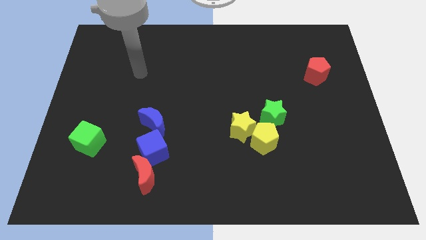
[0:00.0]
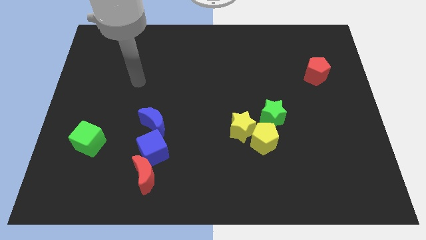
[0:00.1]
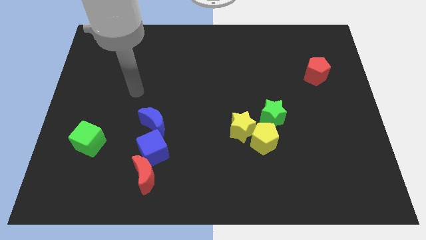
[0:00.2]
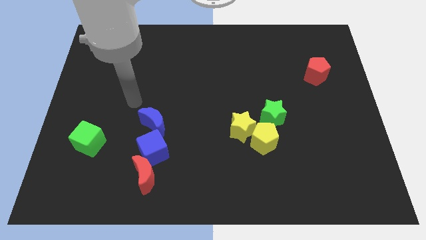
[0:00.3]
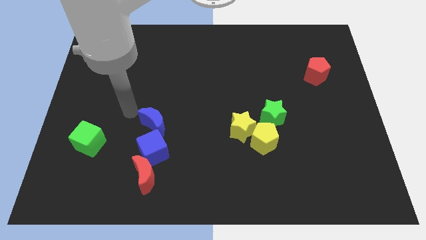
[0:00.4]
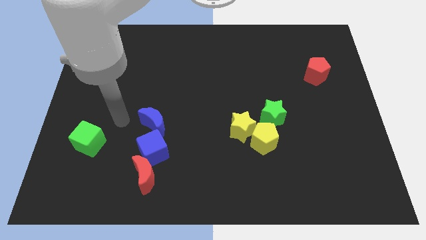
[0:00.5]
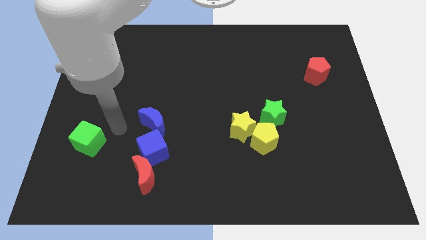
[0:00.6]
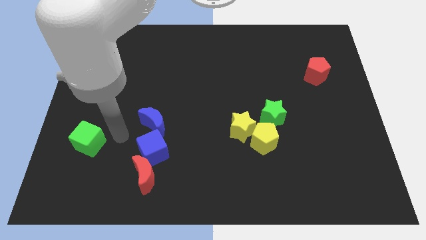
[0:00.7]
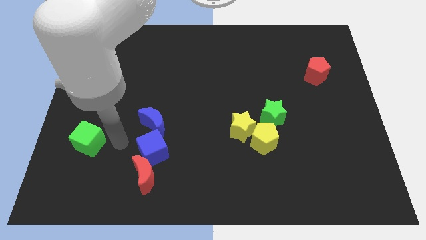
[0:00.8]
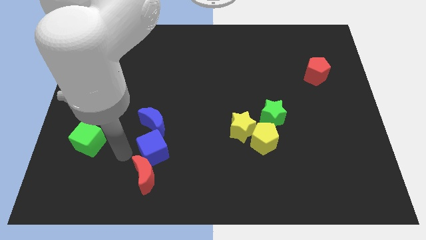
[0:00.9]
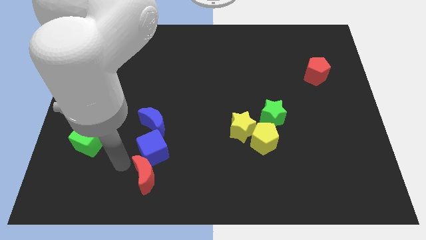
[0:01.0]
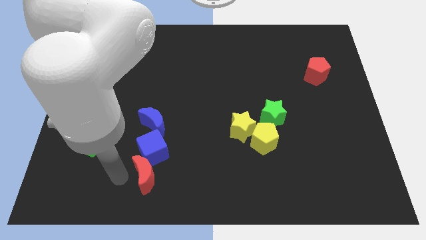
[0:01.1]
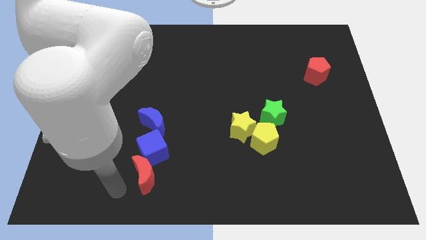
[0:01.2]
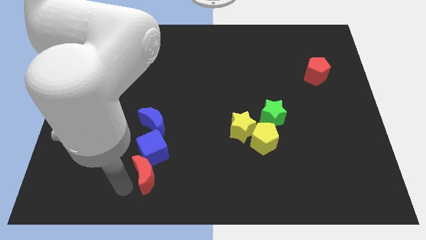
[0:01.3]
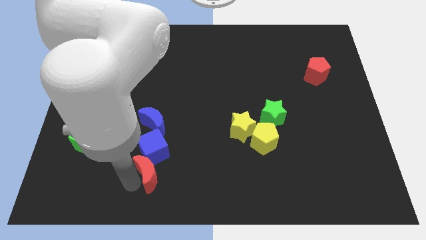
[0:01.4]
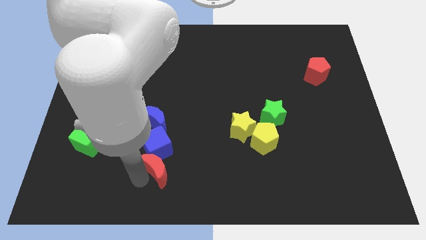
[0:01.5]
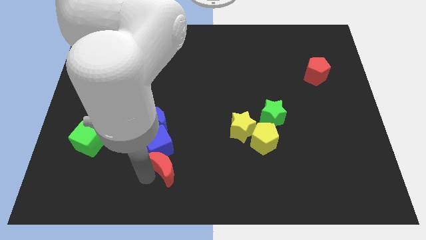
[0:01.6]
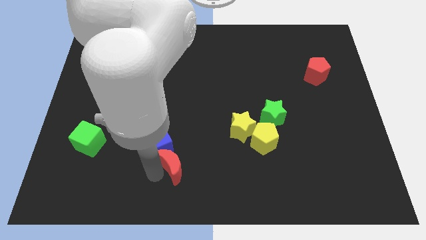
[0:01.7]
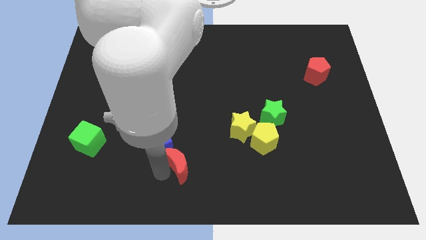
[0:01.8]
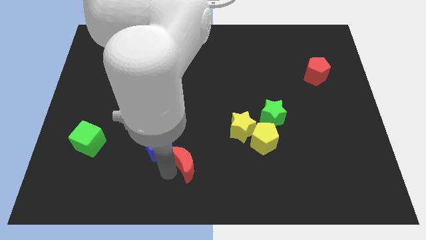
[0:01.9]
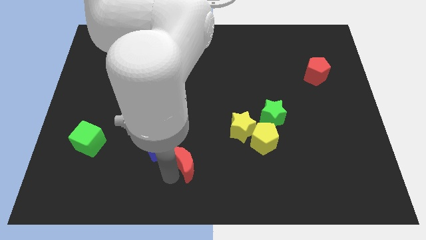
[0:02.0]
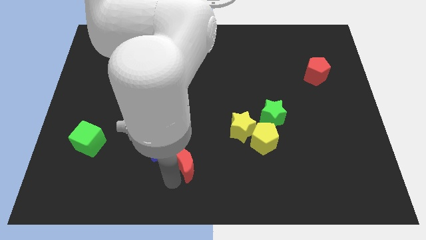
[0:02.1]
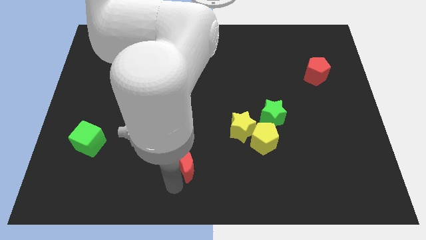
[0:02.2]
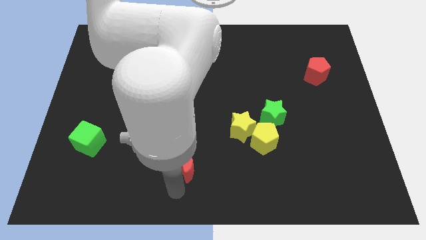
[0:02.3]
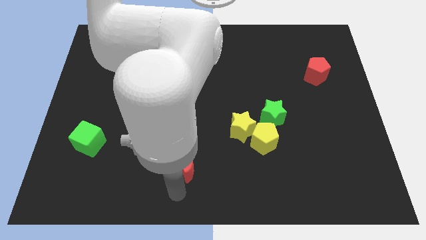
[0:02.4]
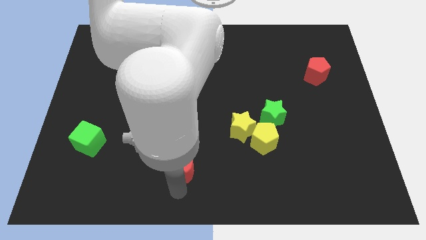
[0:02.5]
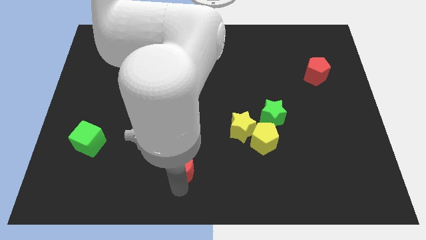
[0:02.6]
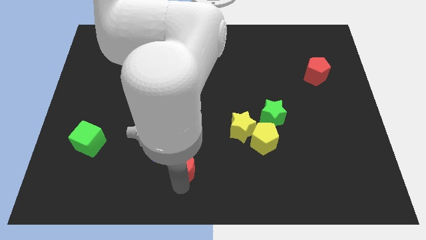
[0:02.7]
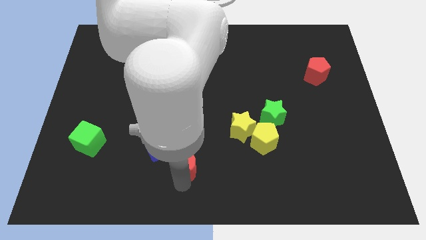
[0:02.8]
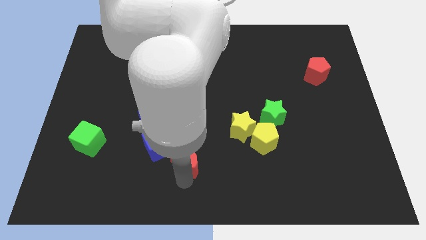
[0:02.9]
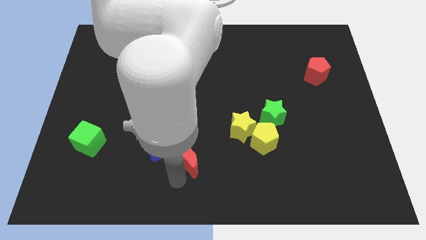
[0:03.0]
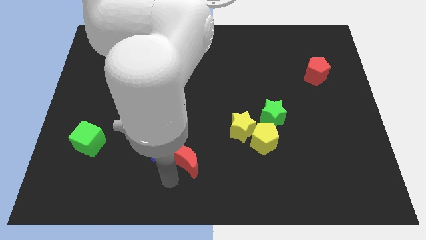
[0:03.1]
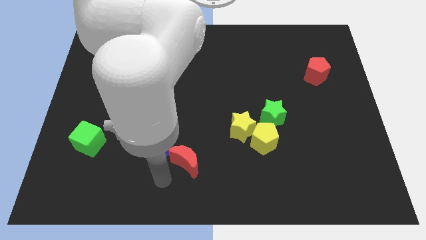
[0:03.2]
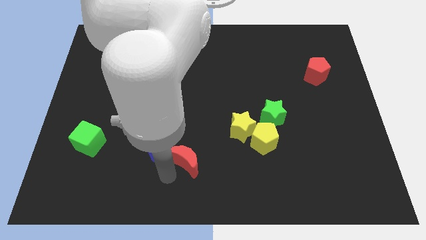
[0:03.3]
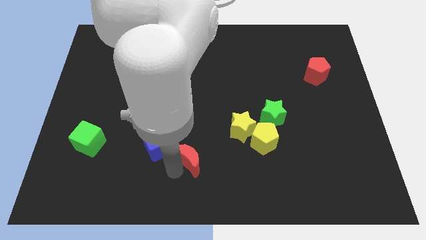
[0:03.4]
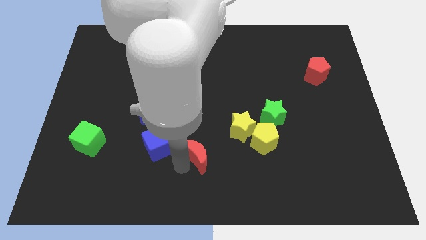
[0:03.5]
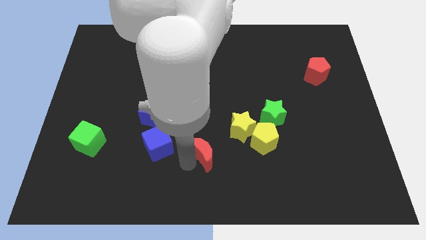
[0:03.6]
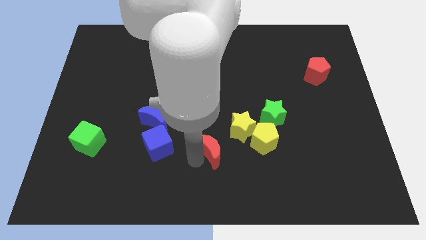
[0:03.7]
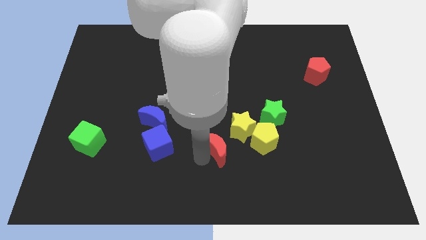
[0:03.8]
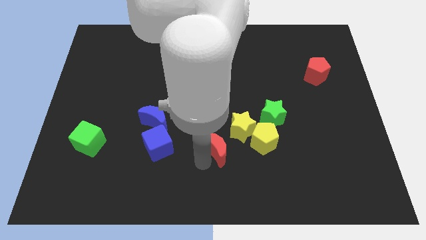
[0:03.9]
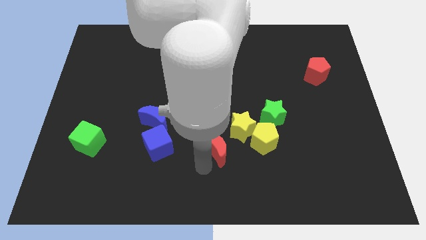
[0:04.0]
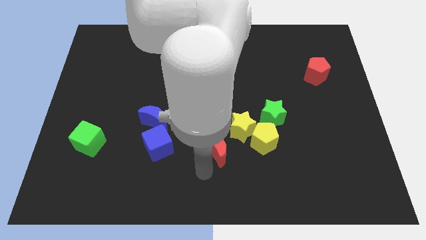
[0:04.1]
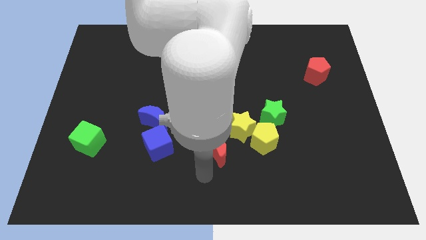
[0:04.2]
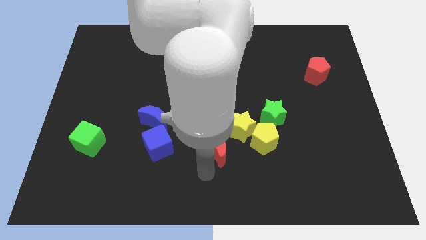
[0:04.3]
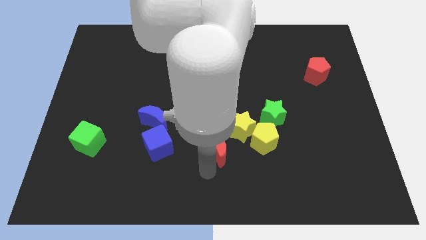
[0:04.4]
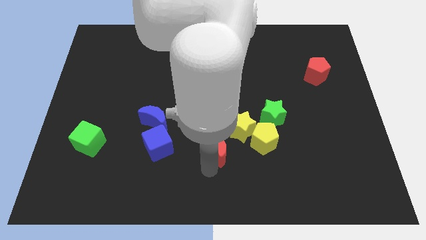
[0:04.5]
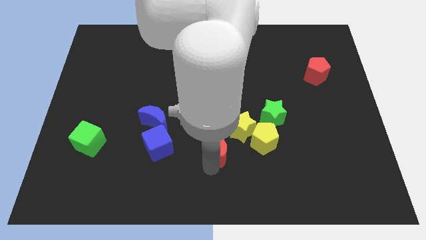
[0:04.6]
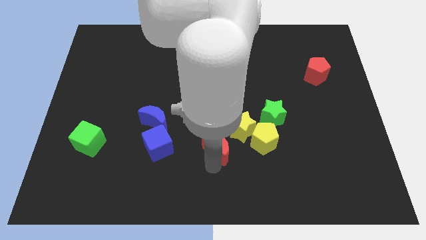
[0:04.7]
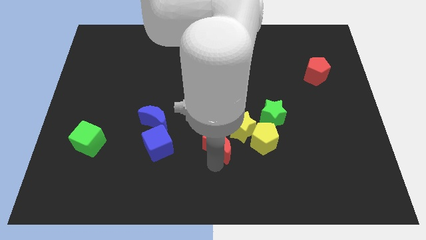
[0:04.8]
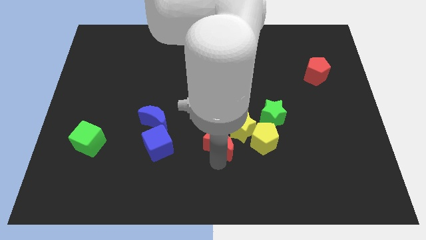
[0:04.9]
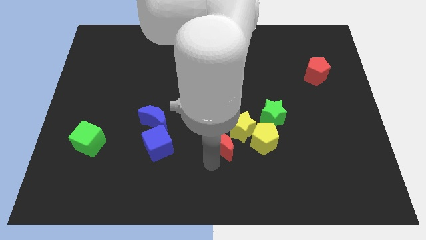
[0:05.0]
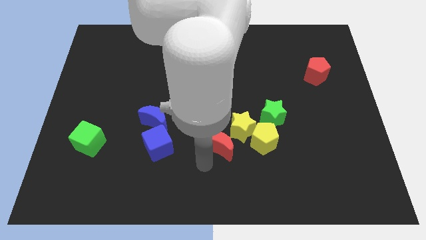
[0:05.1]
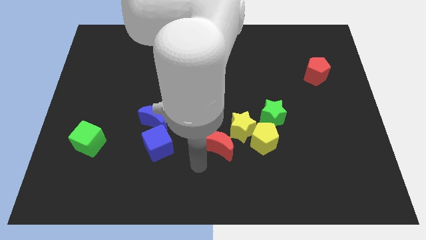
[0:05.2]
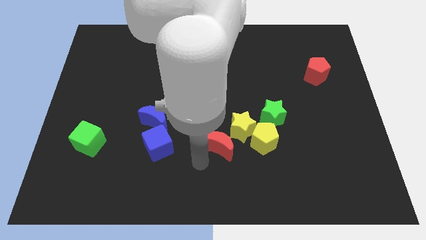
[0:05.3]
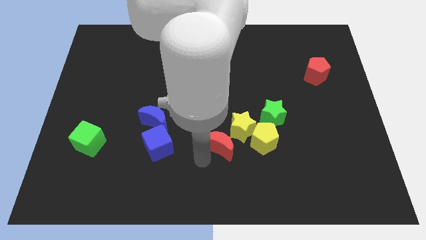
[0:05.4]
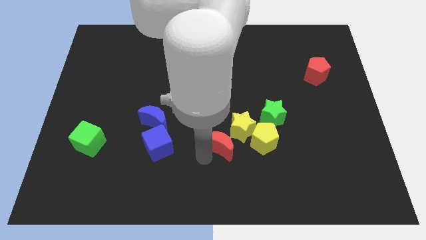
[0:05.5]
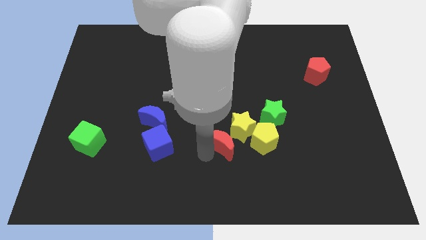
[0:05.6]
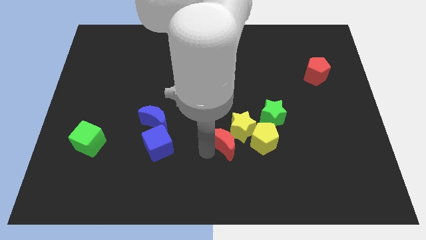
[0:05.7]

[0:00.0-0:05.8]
slide the red moon next to the yellow star

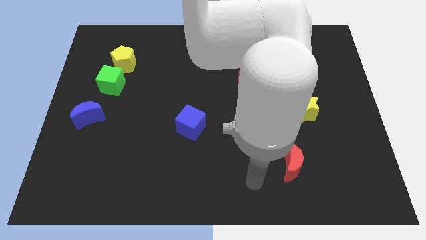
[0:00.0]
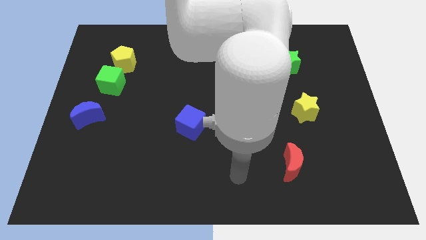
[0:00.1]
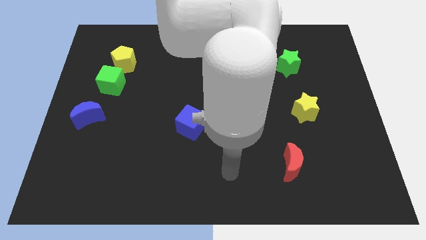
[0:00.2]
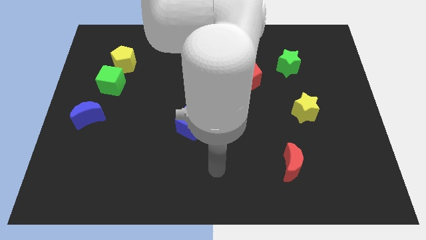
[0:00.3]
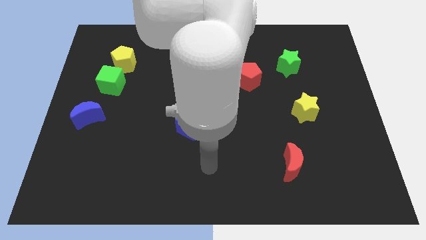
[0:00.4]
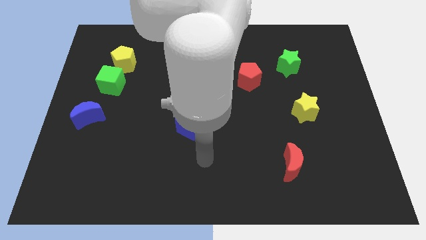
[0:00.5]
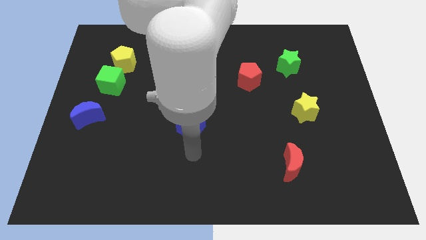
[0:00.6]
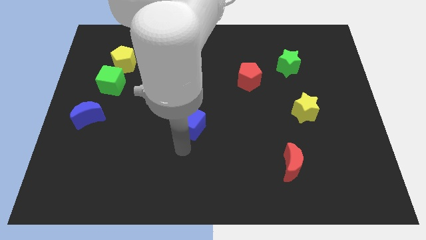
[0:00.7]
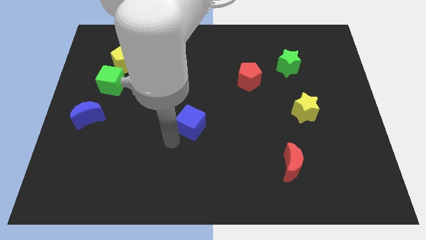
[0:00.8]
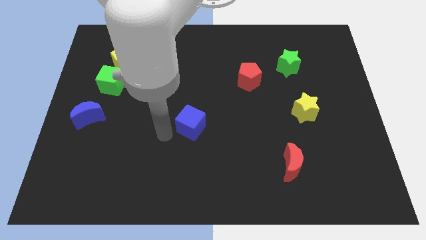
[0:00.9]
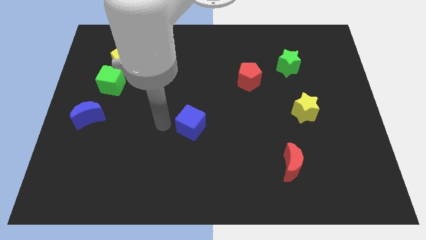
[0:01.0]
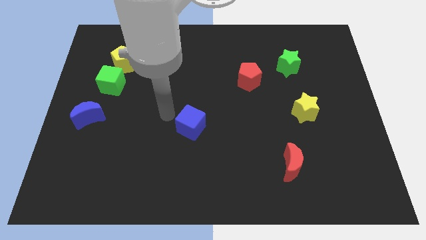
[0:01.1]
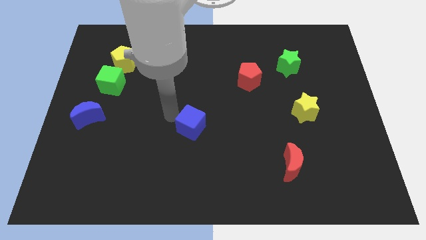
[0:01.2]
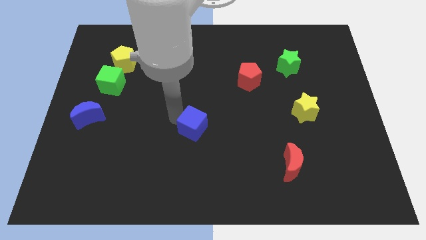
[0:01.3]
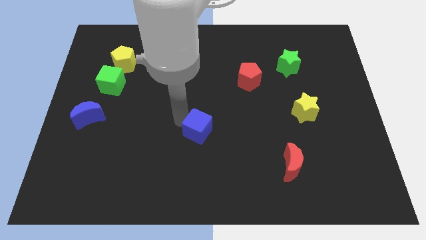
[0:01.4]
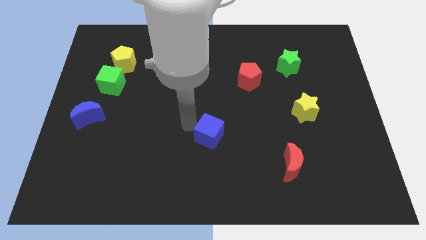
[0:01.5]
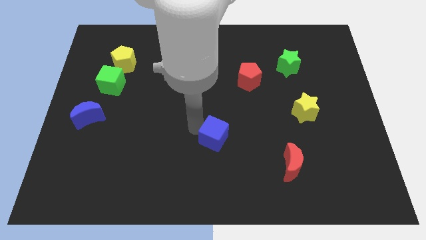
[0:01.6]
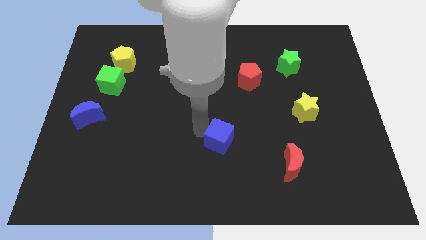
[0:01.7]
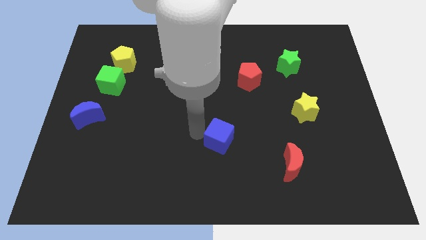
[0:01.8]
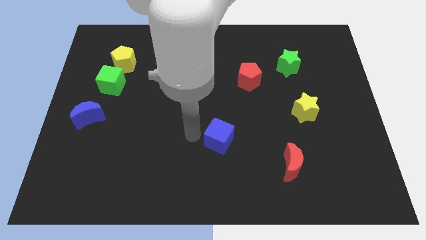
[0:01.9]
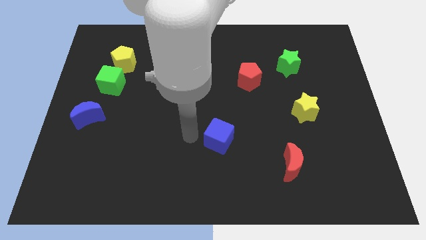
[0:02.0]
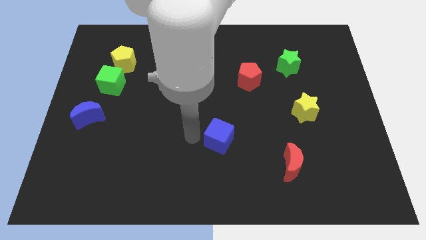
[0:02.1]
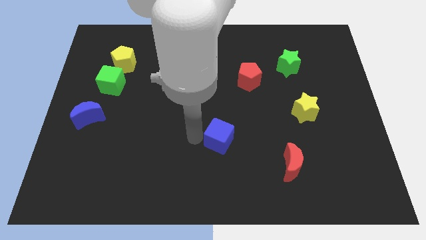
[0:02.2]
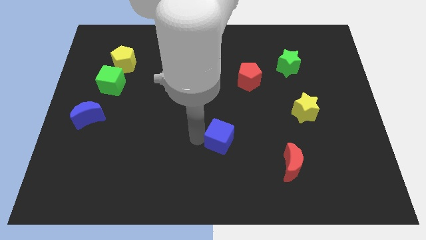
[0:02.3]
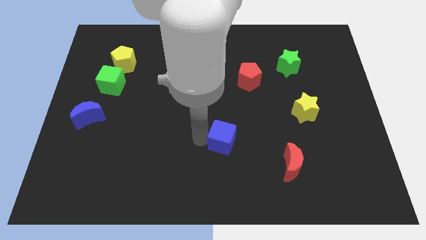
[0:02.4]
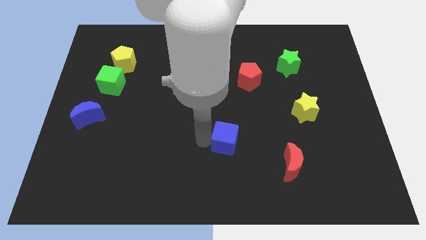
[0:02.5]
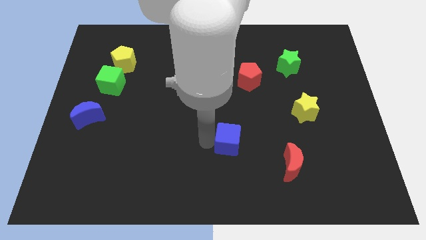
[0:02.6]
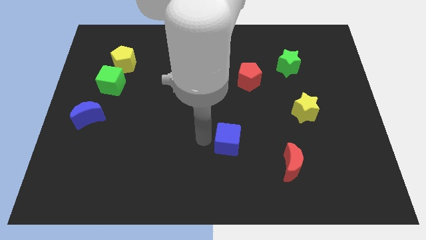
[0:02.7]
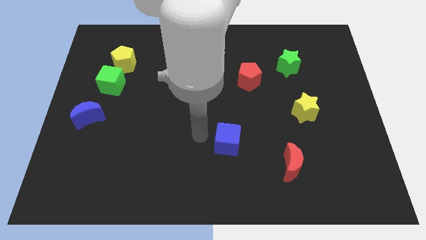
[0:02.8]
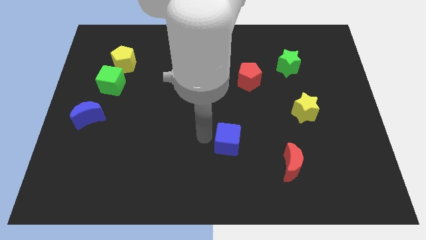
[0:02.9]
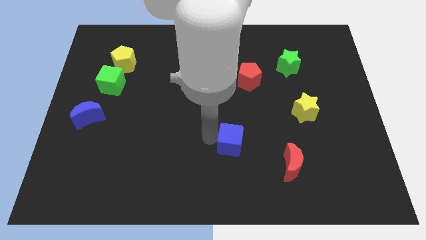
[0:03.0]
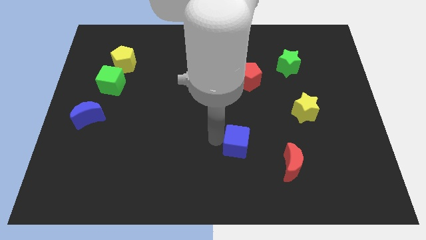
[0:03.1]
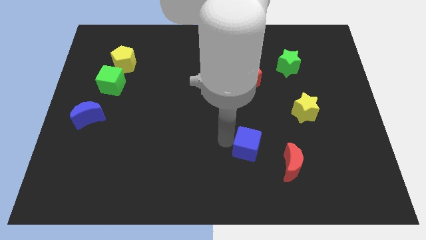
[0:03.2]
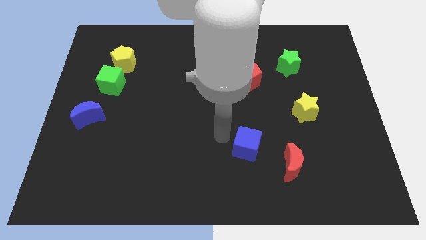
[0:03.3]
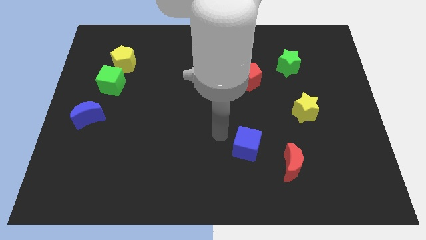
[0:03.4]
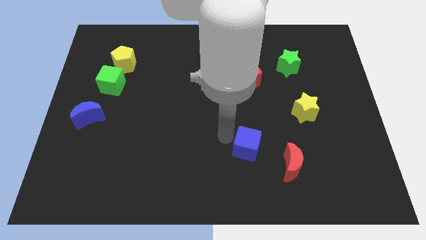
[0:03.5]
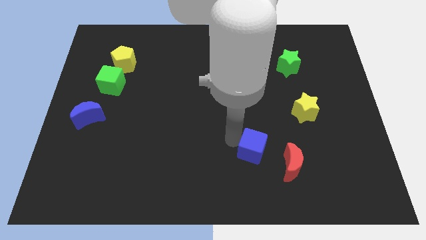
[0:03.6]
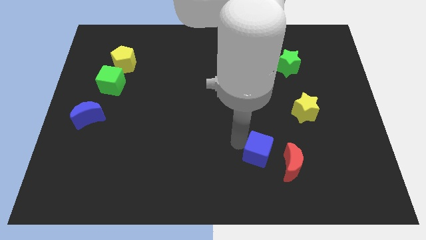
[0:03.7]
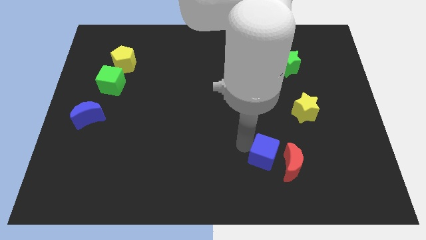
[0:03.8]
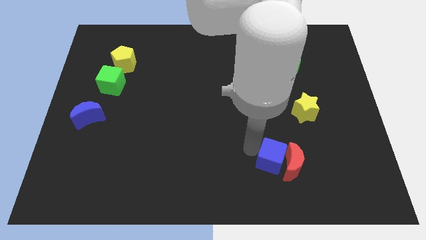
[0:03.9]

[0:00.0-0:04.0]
put the blue cube towards the red moon
